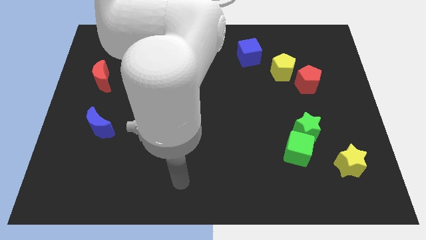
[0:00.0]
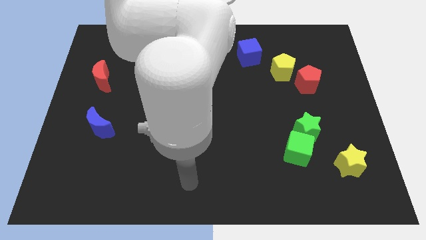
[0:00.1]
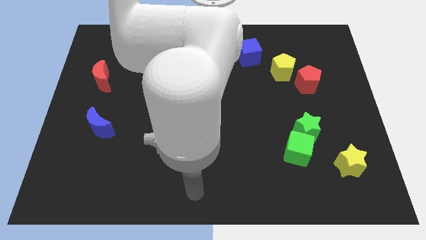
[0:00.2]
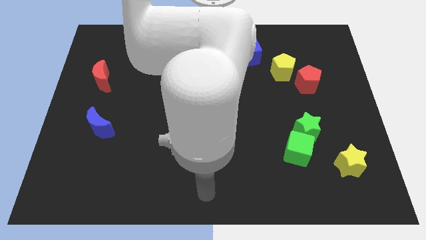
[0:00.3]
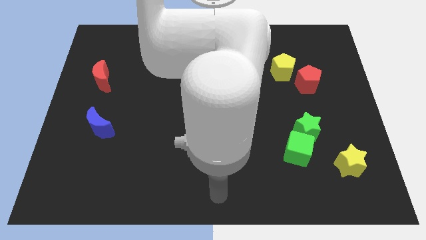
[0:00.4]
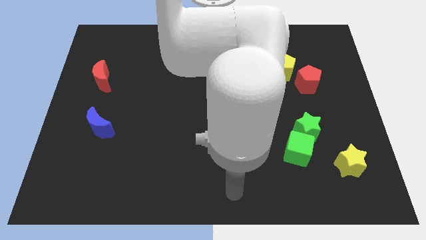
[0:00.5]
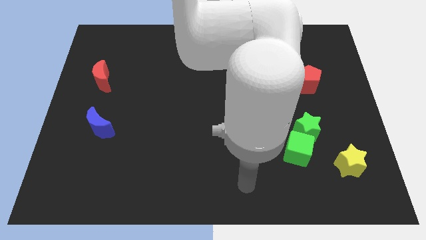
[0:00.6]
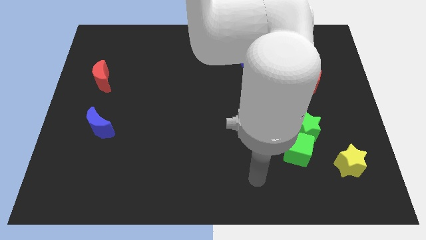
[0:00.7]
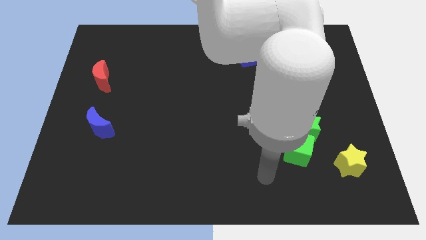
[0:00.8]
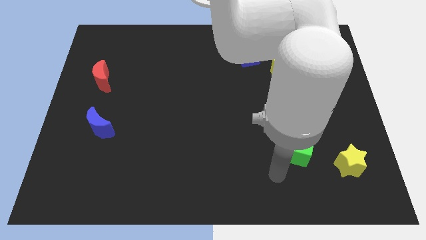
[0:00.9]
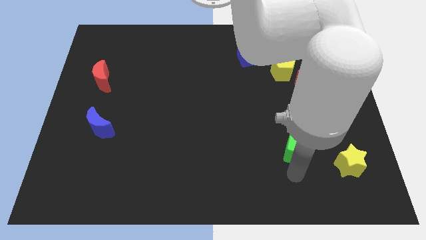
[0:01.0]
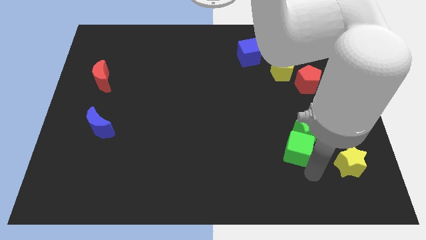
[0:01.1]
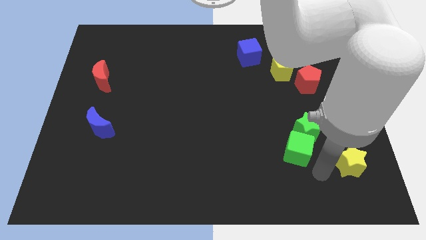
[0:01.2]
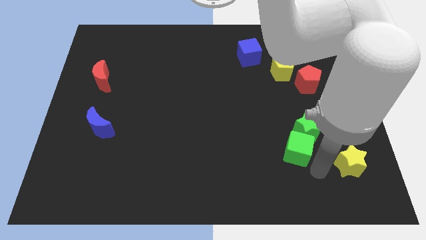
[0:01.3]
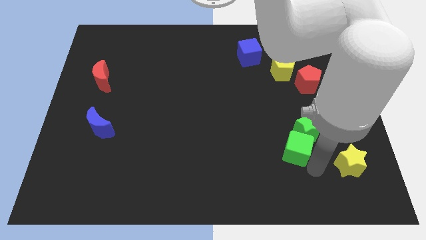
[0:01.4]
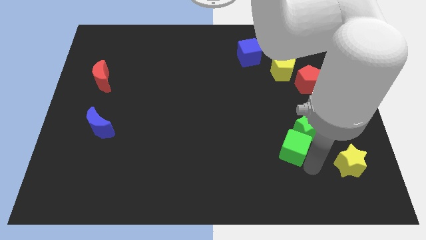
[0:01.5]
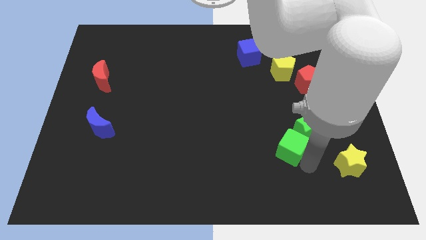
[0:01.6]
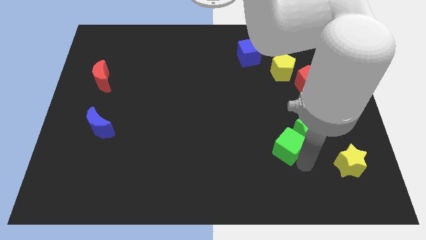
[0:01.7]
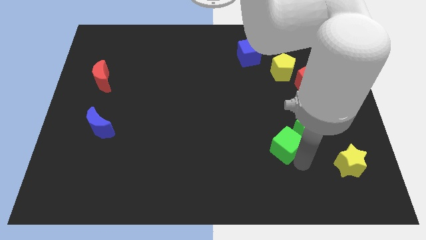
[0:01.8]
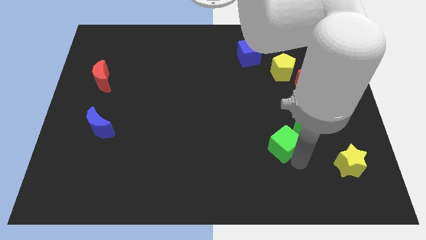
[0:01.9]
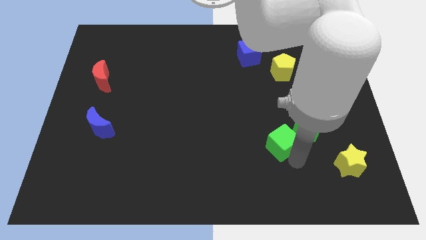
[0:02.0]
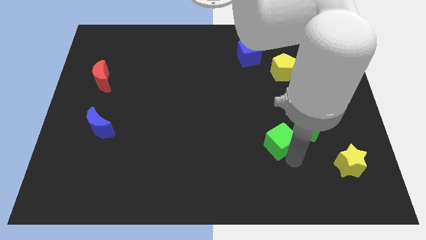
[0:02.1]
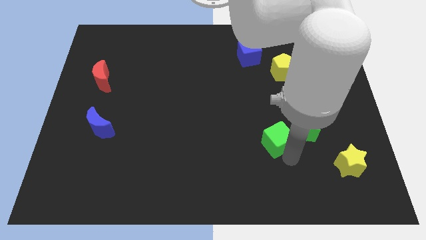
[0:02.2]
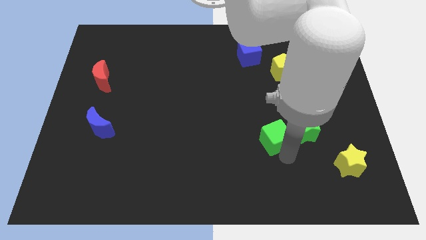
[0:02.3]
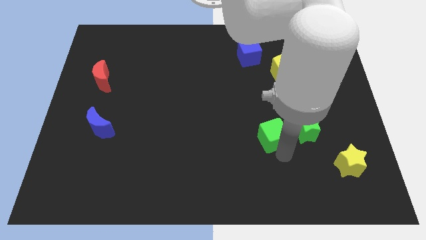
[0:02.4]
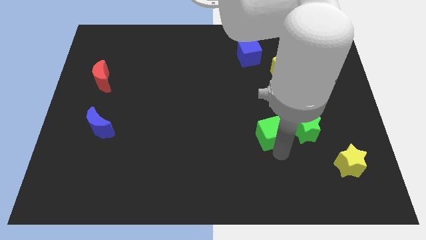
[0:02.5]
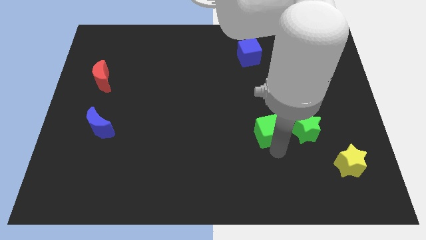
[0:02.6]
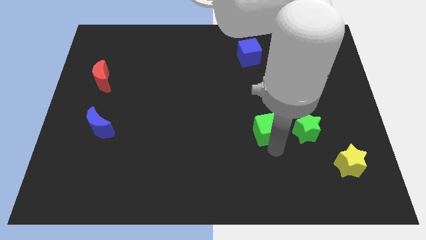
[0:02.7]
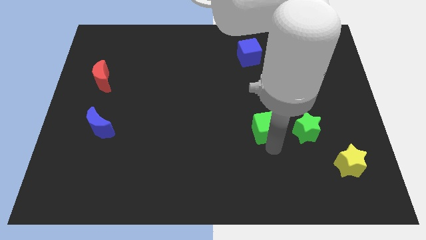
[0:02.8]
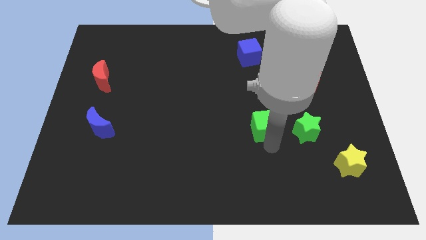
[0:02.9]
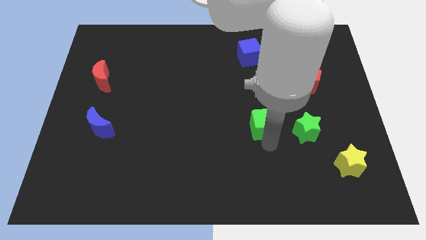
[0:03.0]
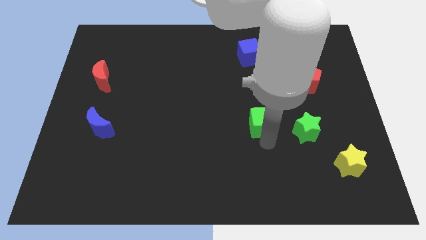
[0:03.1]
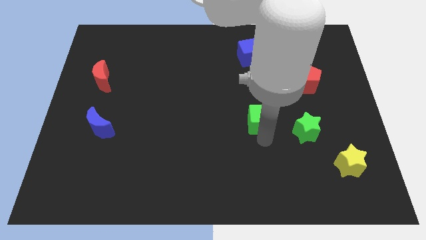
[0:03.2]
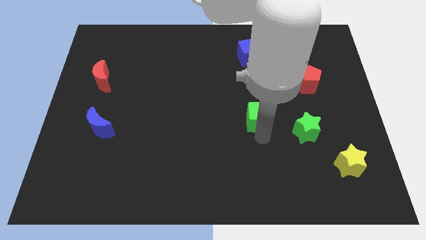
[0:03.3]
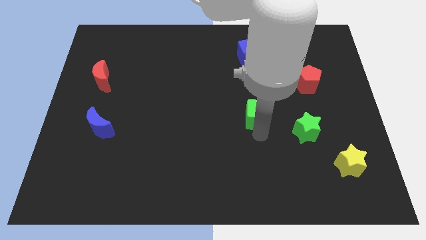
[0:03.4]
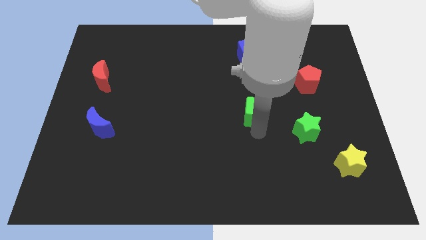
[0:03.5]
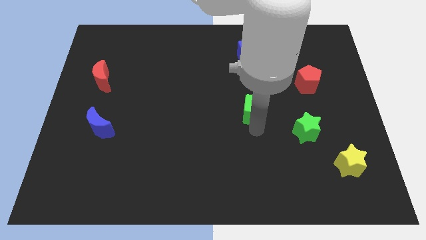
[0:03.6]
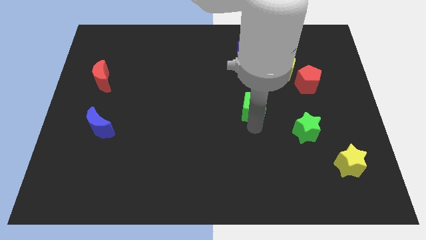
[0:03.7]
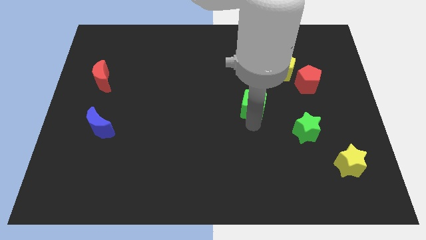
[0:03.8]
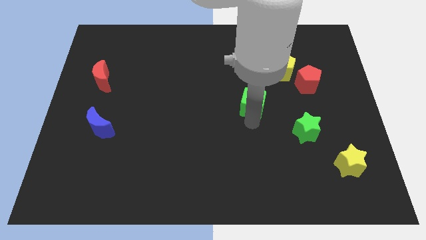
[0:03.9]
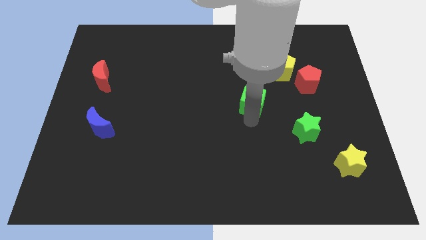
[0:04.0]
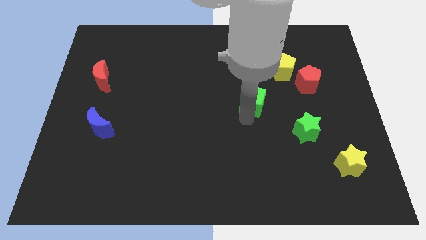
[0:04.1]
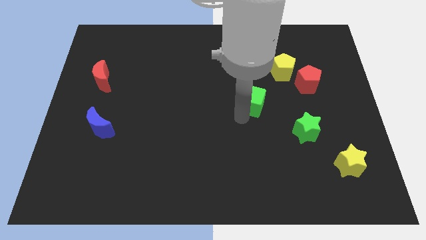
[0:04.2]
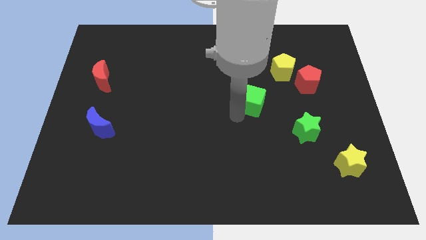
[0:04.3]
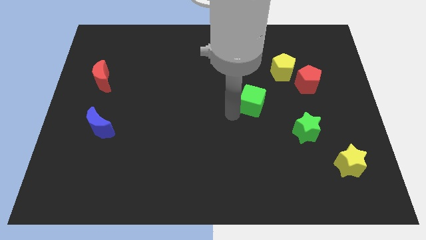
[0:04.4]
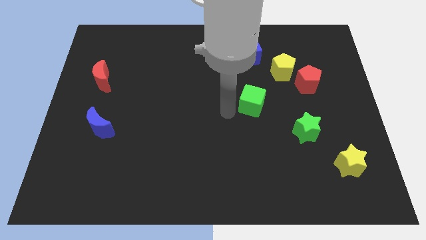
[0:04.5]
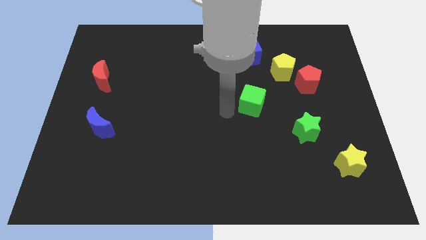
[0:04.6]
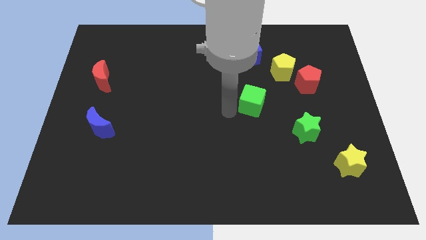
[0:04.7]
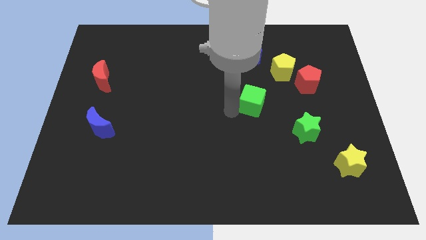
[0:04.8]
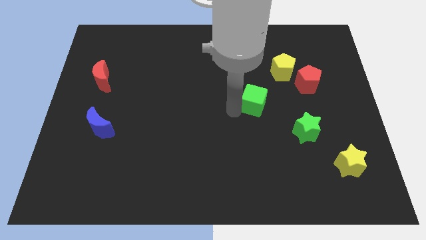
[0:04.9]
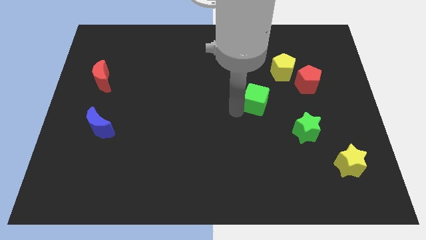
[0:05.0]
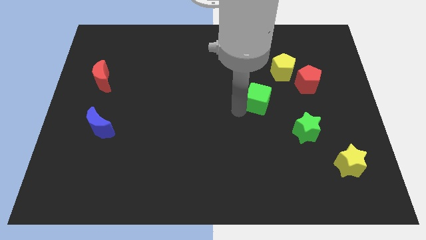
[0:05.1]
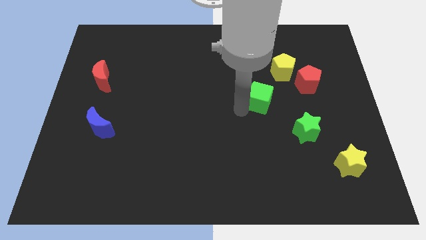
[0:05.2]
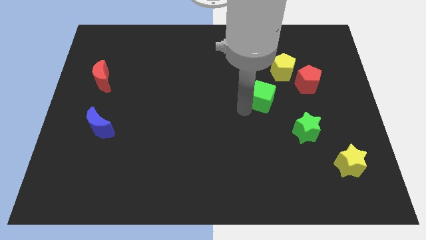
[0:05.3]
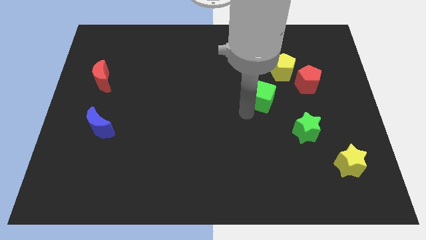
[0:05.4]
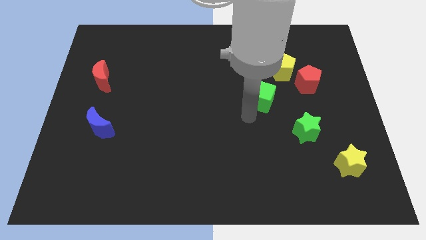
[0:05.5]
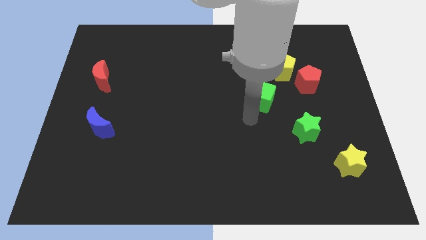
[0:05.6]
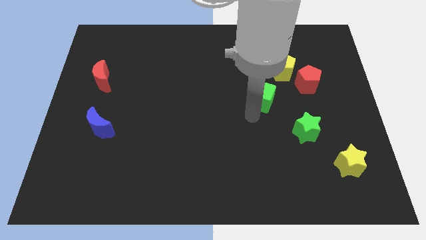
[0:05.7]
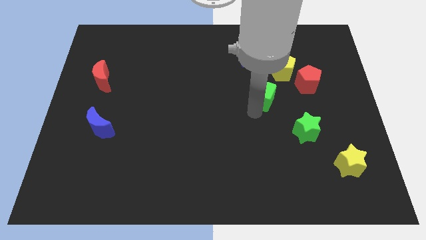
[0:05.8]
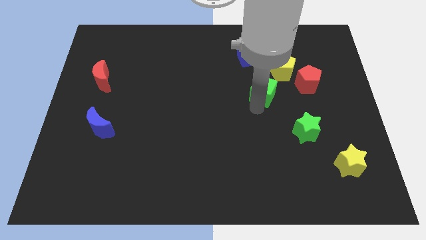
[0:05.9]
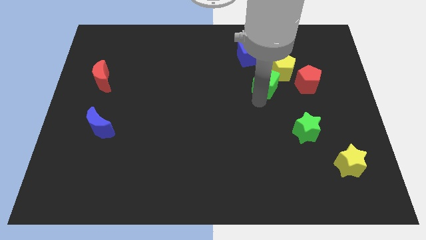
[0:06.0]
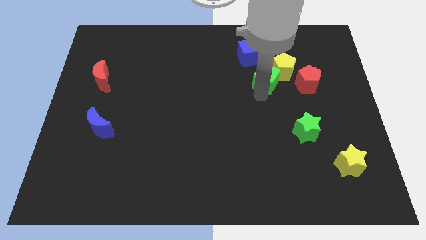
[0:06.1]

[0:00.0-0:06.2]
put the green cube next to the yellow pentagon
